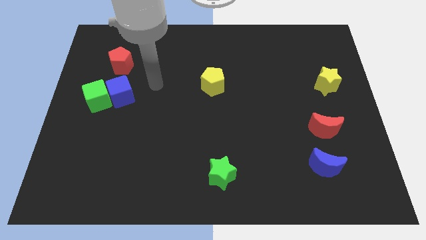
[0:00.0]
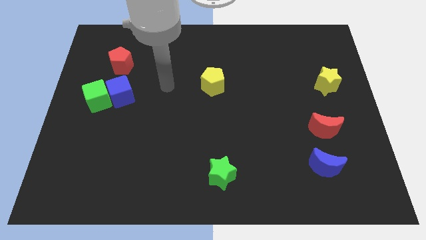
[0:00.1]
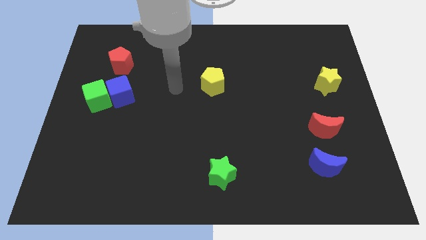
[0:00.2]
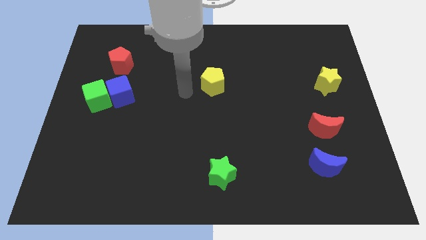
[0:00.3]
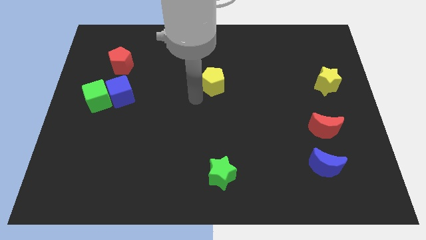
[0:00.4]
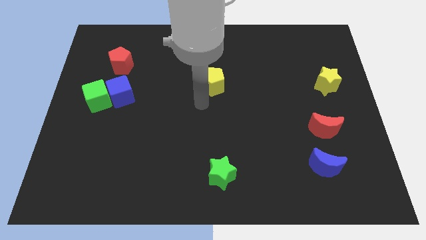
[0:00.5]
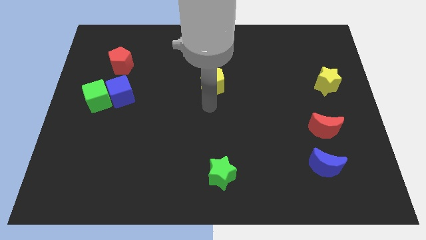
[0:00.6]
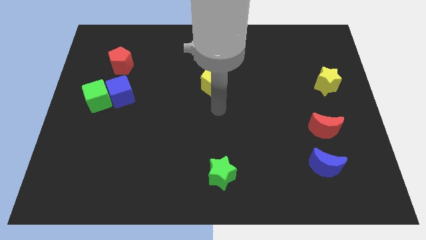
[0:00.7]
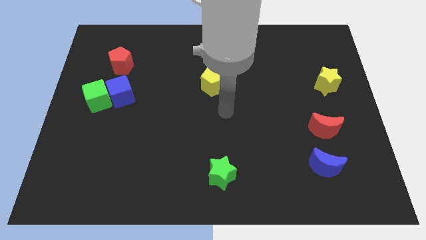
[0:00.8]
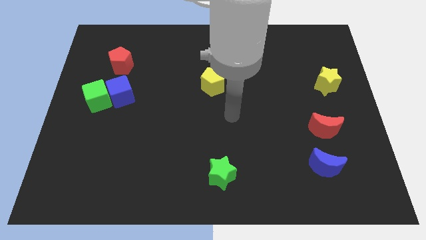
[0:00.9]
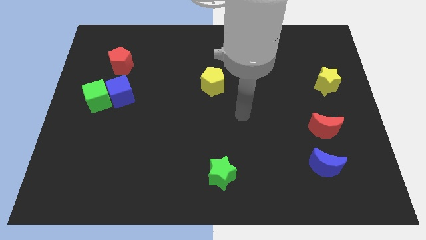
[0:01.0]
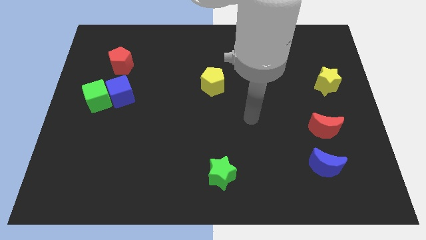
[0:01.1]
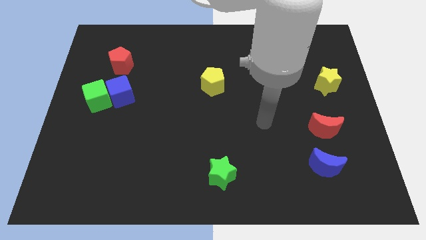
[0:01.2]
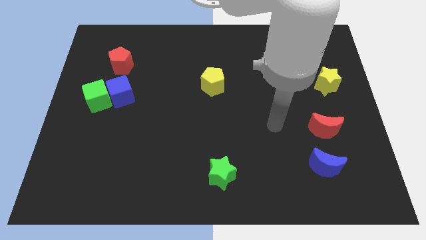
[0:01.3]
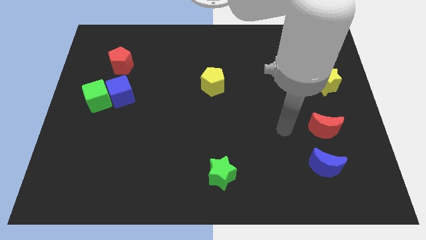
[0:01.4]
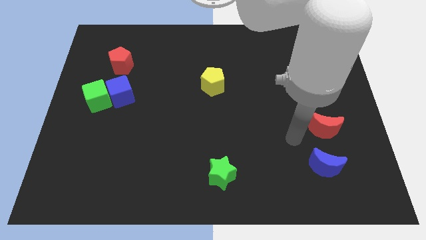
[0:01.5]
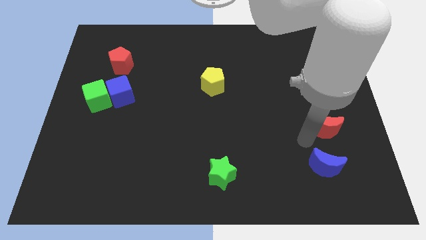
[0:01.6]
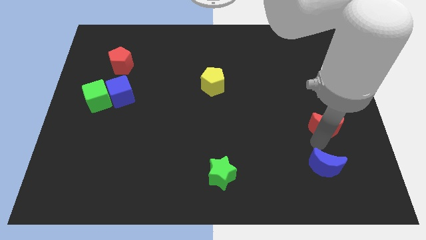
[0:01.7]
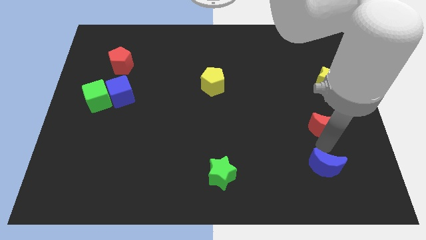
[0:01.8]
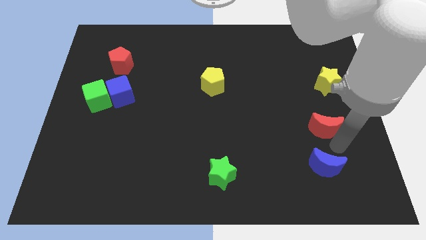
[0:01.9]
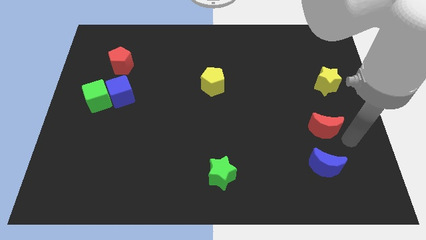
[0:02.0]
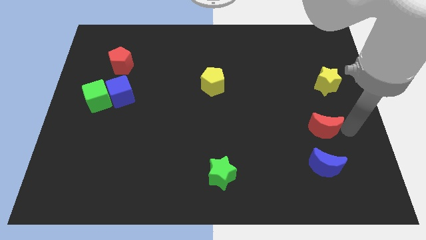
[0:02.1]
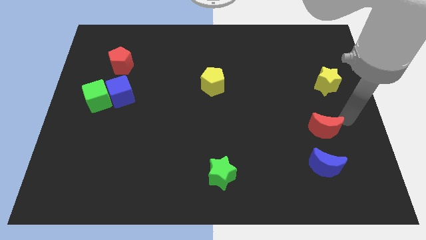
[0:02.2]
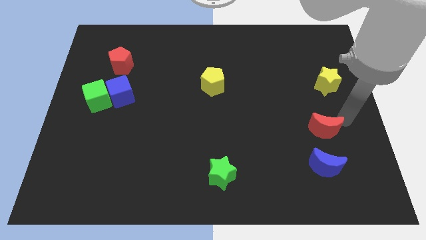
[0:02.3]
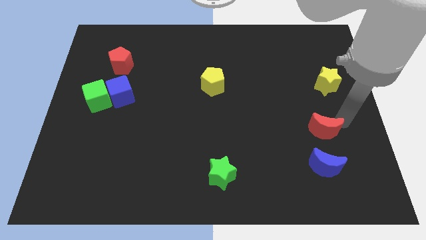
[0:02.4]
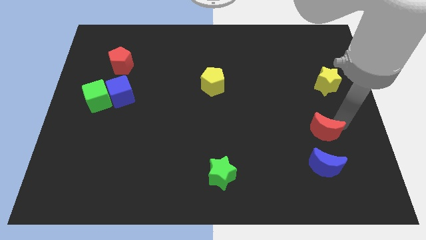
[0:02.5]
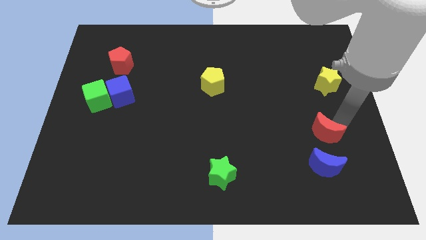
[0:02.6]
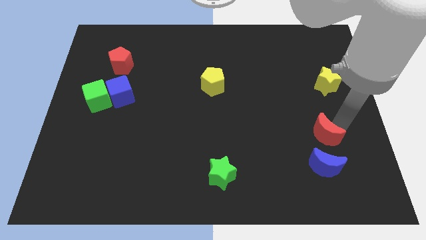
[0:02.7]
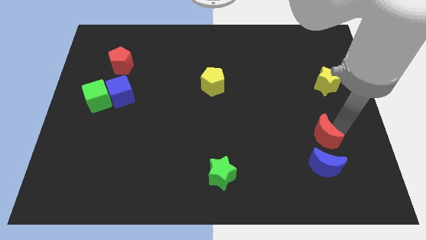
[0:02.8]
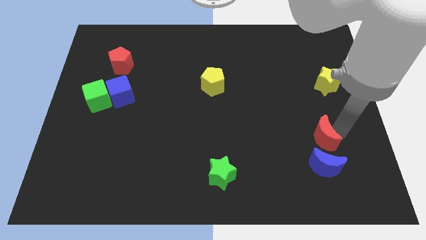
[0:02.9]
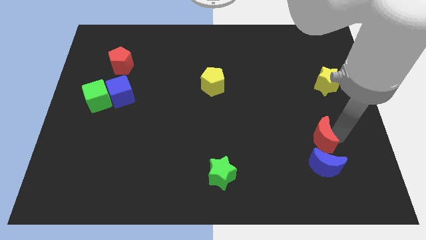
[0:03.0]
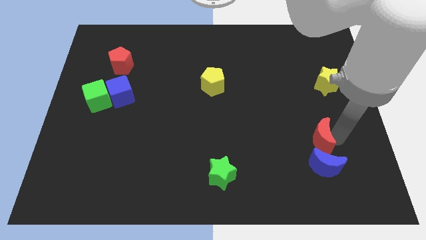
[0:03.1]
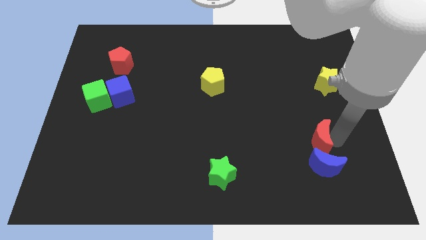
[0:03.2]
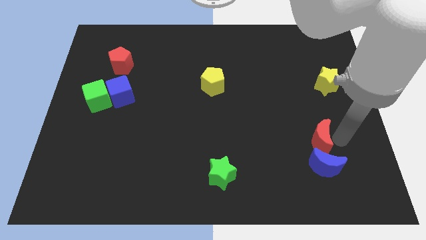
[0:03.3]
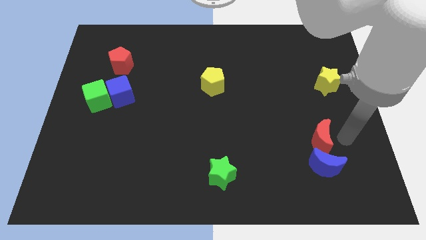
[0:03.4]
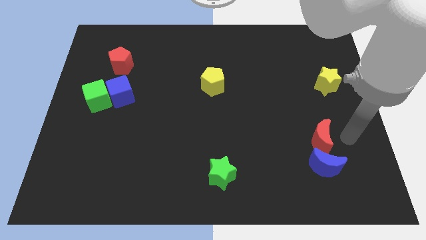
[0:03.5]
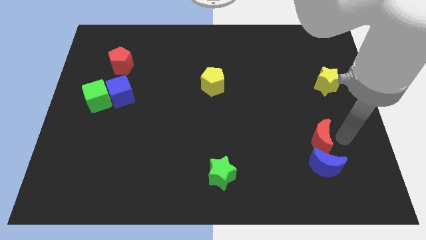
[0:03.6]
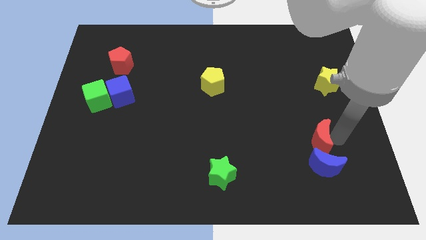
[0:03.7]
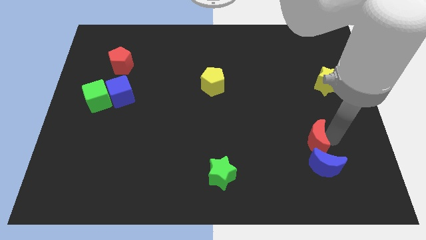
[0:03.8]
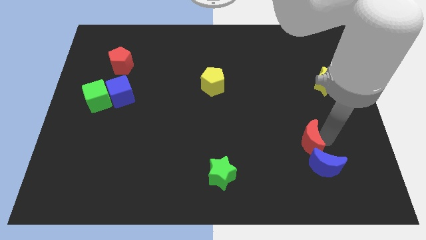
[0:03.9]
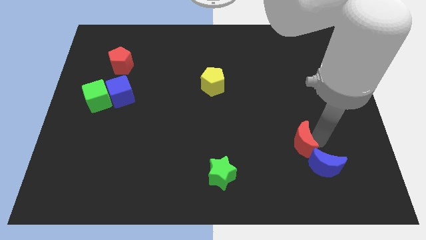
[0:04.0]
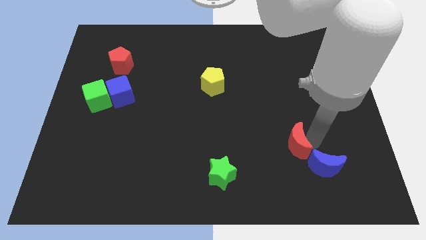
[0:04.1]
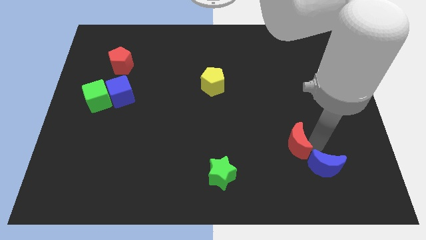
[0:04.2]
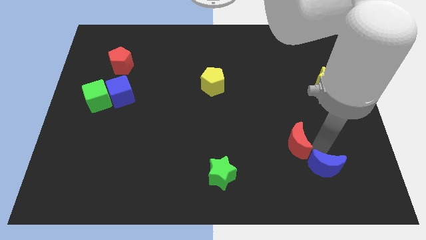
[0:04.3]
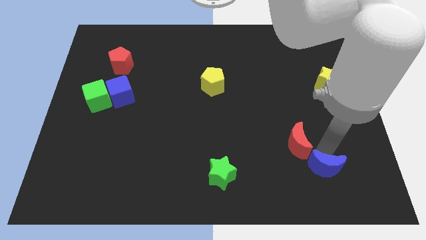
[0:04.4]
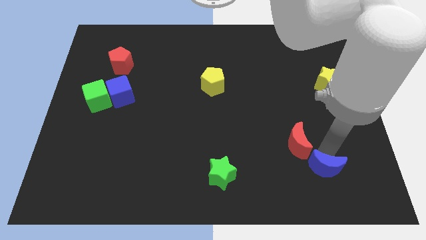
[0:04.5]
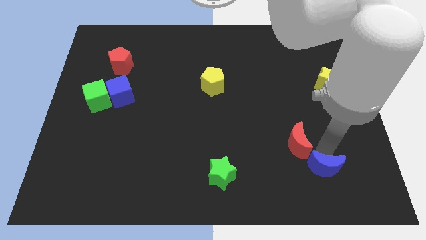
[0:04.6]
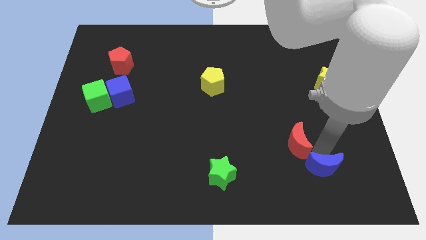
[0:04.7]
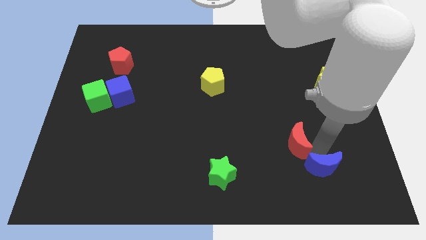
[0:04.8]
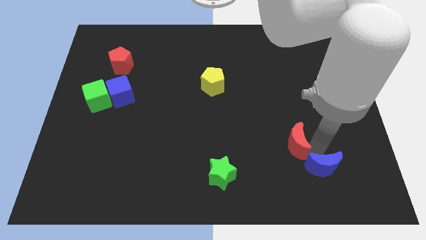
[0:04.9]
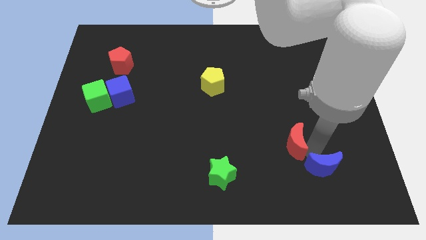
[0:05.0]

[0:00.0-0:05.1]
slightly move the red moon to the left

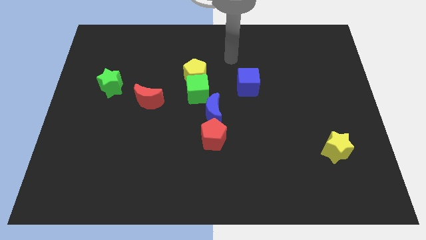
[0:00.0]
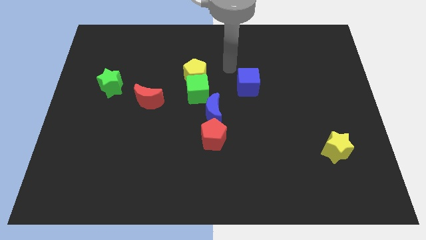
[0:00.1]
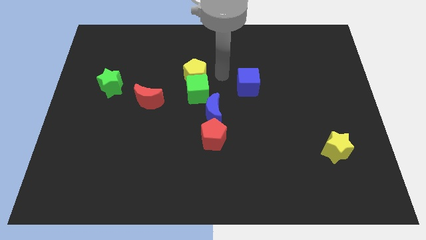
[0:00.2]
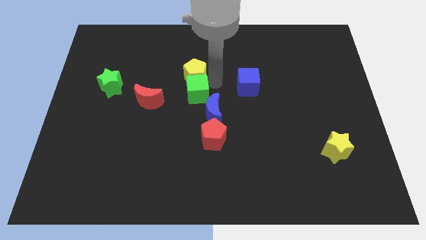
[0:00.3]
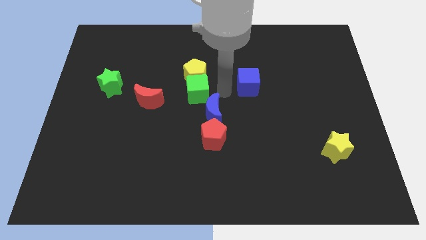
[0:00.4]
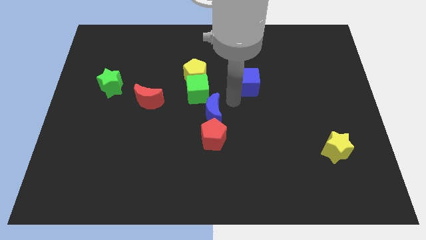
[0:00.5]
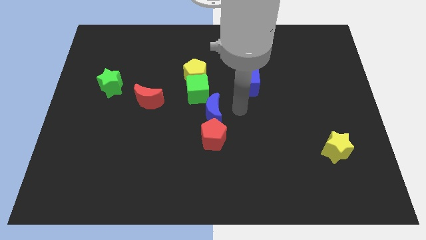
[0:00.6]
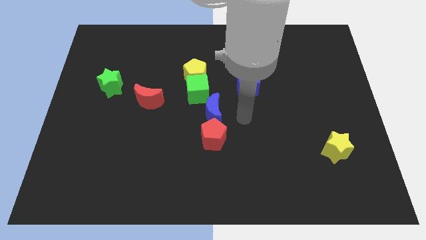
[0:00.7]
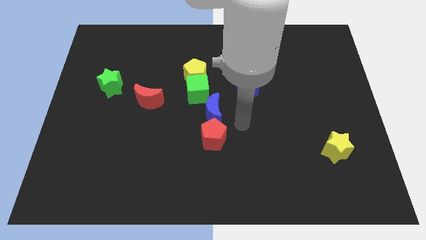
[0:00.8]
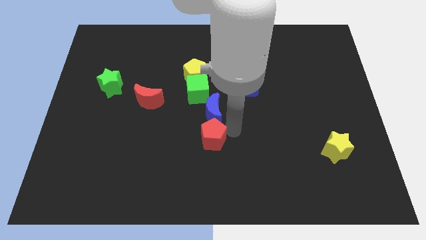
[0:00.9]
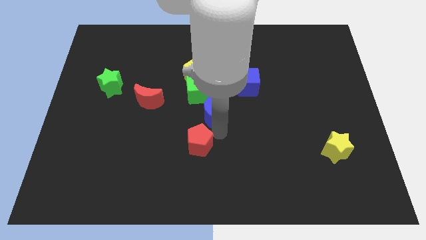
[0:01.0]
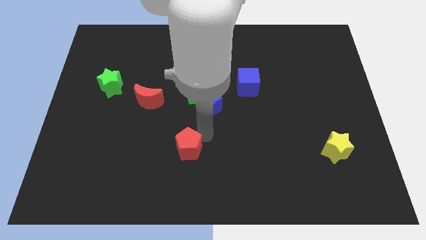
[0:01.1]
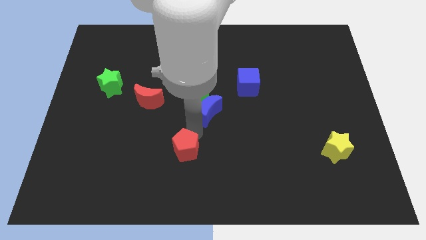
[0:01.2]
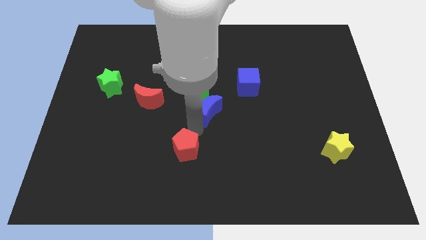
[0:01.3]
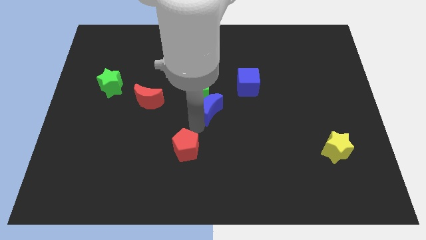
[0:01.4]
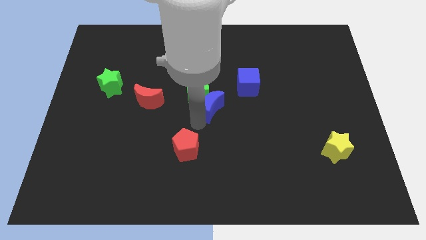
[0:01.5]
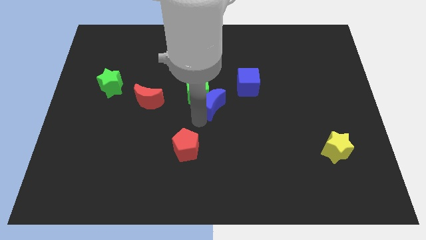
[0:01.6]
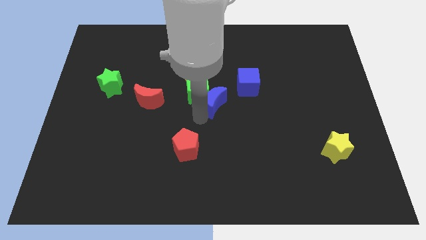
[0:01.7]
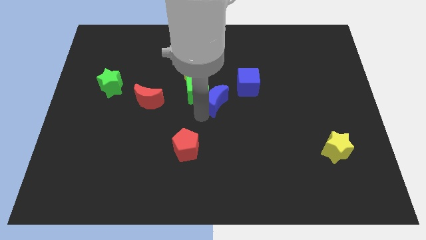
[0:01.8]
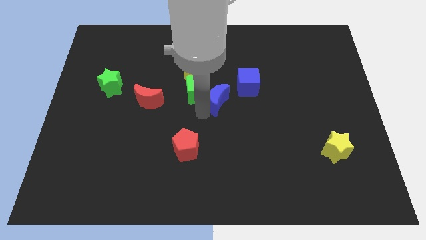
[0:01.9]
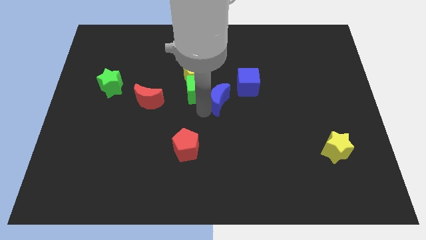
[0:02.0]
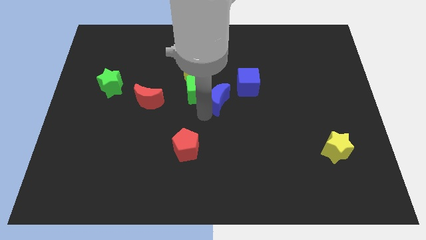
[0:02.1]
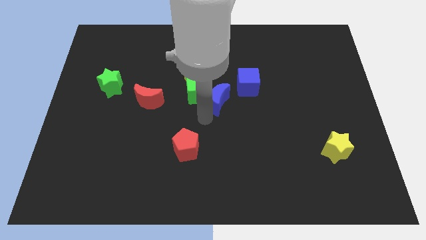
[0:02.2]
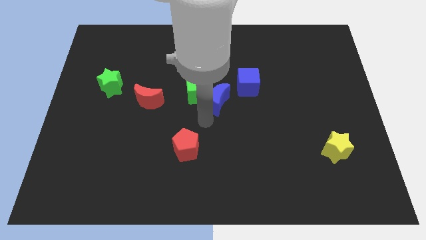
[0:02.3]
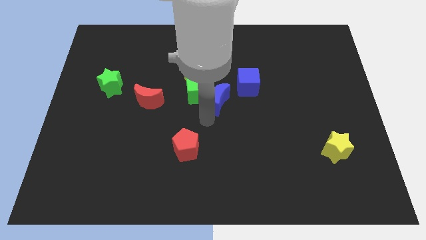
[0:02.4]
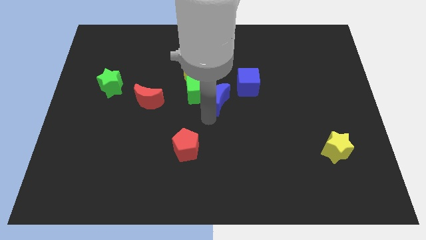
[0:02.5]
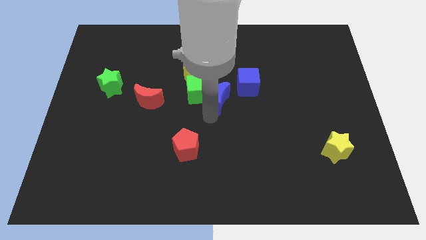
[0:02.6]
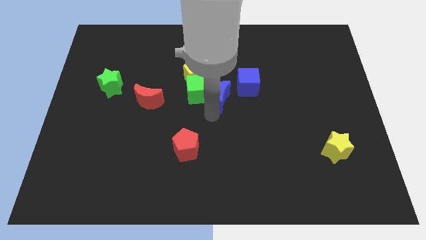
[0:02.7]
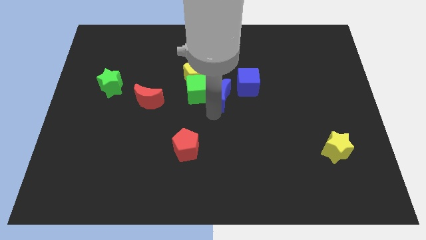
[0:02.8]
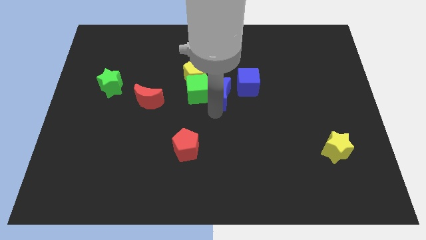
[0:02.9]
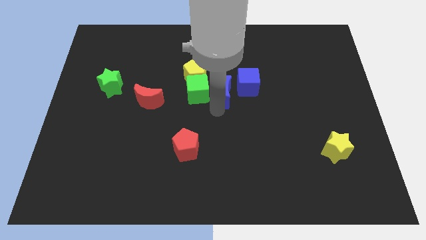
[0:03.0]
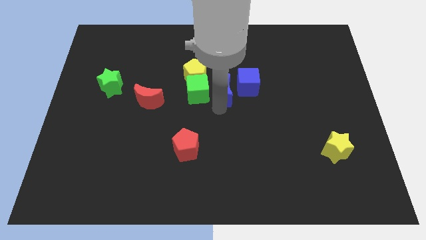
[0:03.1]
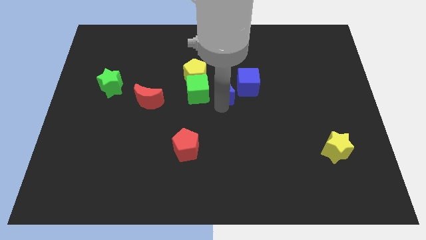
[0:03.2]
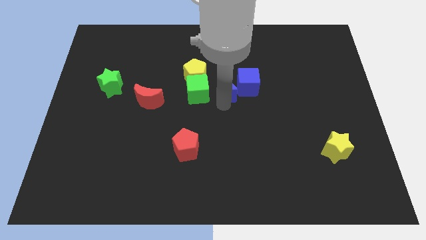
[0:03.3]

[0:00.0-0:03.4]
move the blue moon a little bit diagonally up and right
